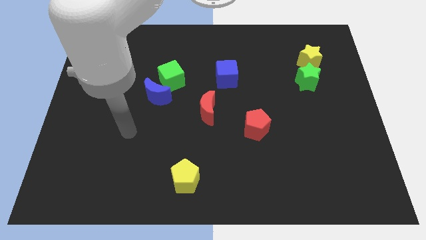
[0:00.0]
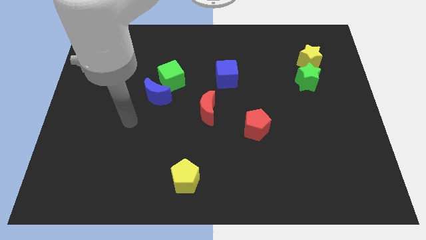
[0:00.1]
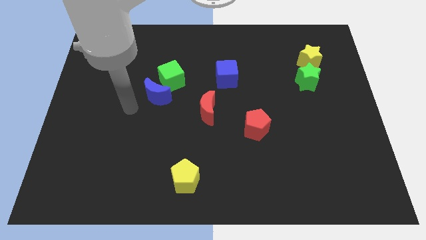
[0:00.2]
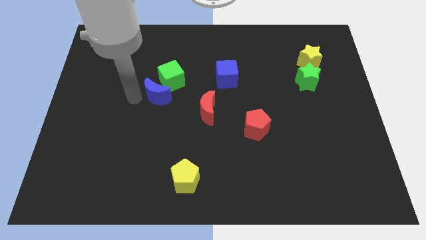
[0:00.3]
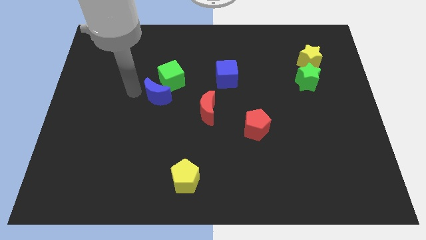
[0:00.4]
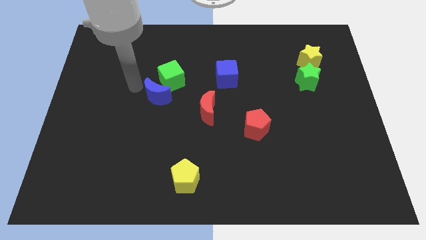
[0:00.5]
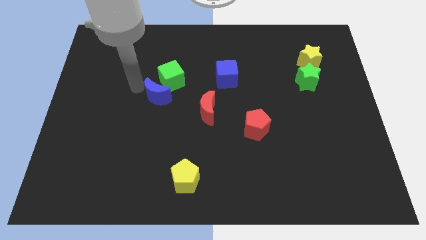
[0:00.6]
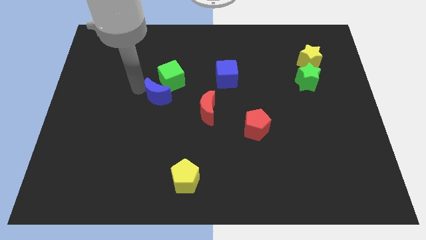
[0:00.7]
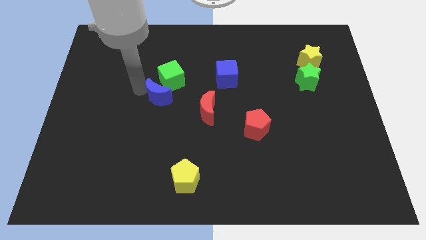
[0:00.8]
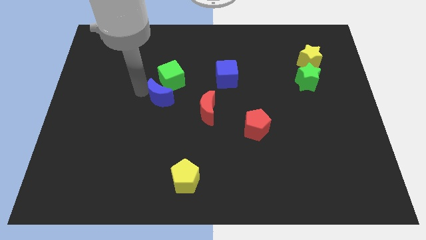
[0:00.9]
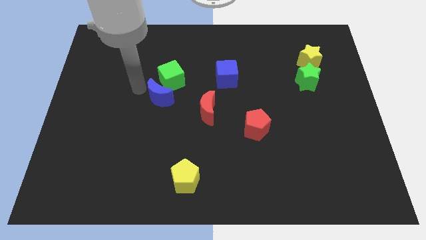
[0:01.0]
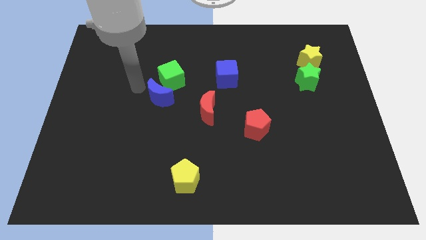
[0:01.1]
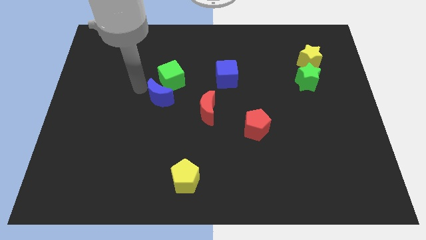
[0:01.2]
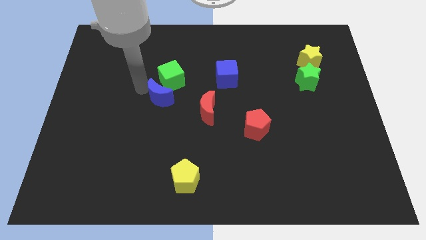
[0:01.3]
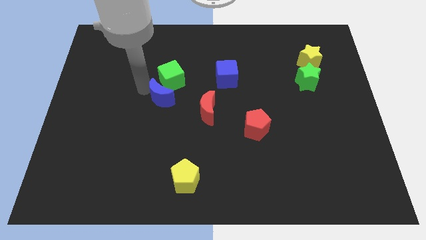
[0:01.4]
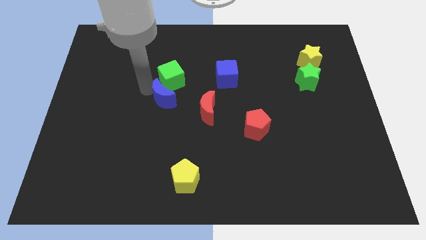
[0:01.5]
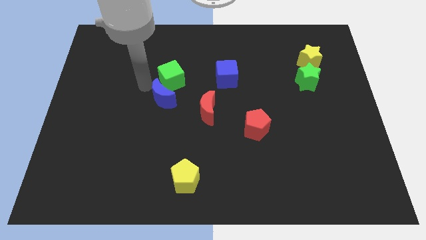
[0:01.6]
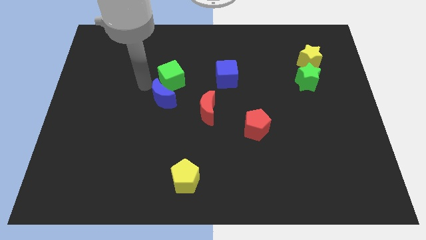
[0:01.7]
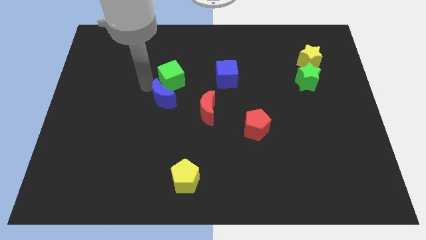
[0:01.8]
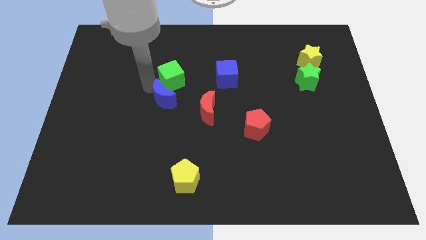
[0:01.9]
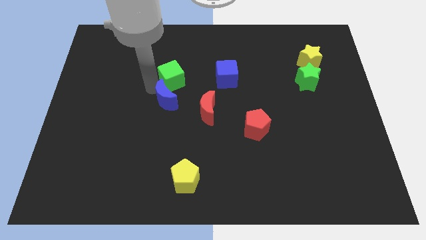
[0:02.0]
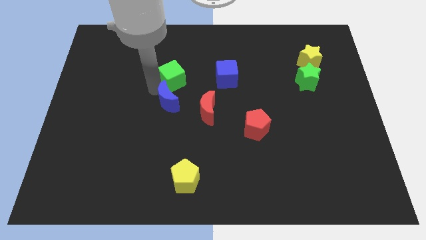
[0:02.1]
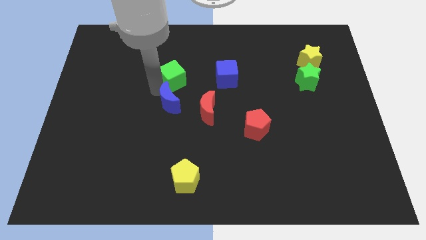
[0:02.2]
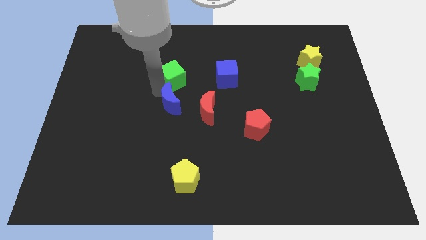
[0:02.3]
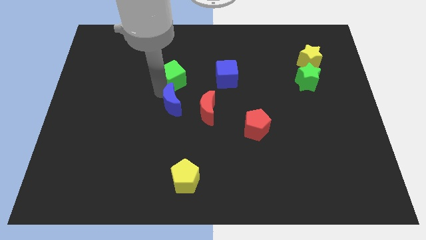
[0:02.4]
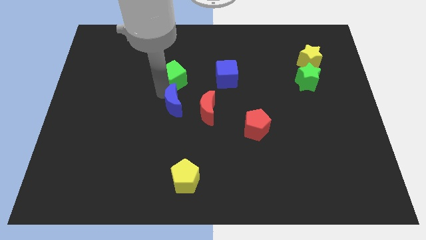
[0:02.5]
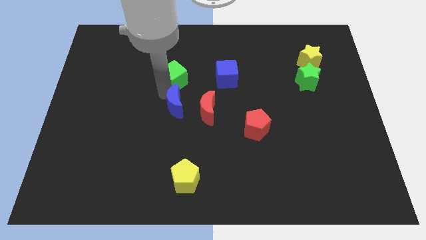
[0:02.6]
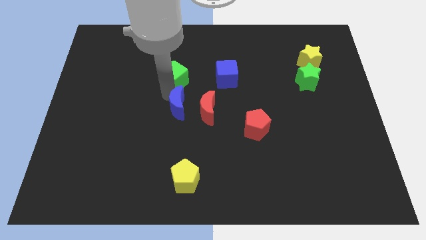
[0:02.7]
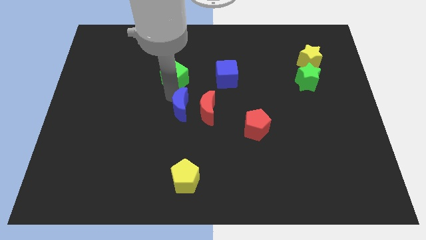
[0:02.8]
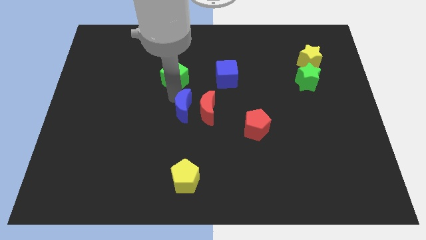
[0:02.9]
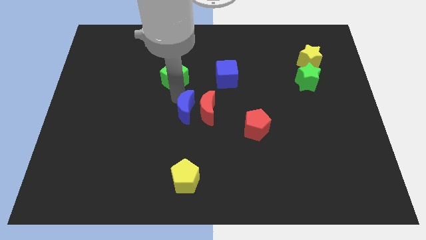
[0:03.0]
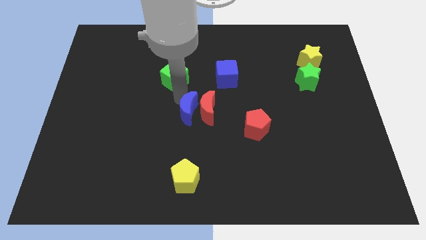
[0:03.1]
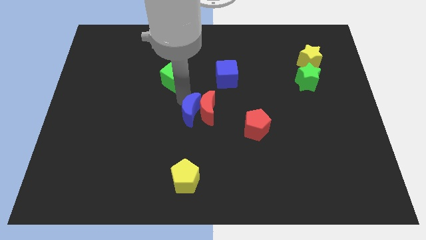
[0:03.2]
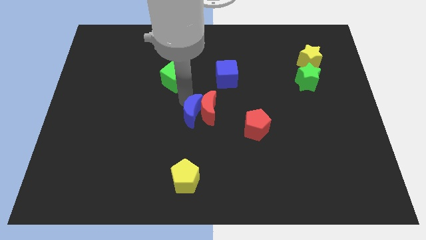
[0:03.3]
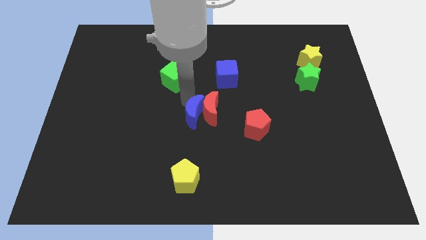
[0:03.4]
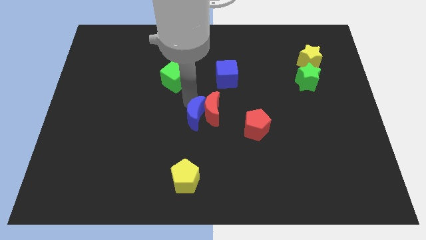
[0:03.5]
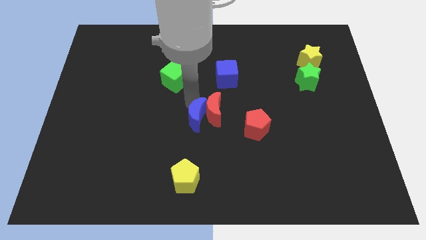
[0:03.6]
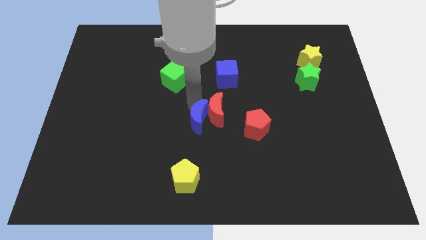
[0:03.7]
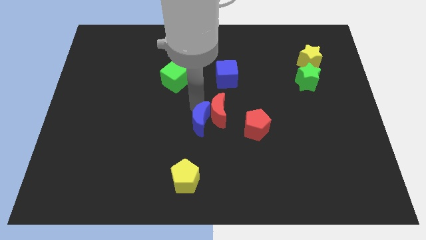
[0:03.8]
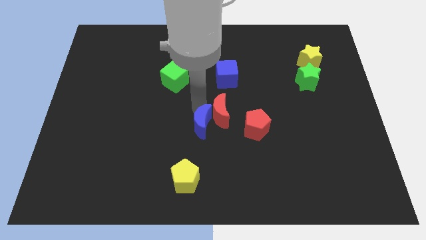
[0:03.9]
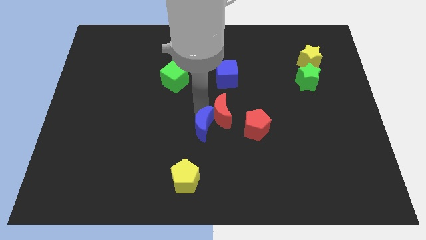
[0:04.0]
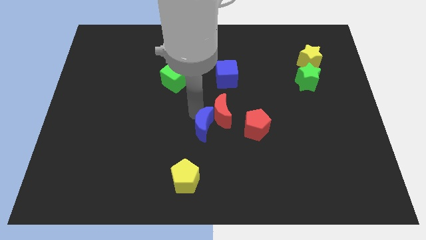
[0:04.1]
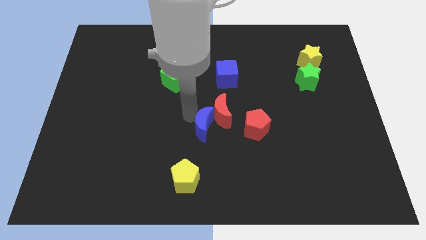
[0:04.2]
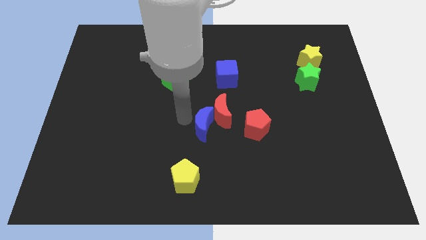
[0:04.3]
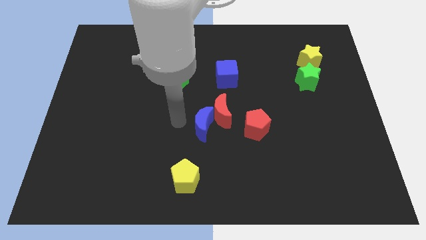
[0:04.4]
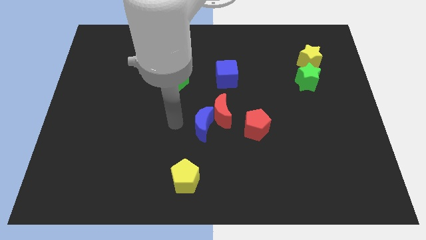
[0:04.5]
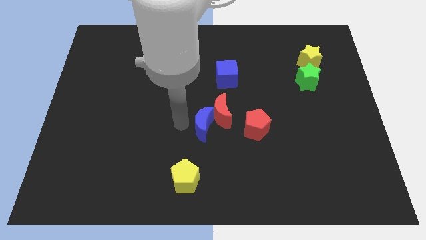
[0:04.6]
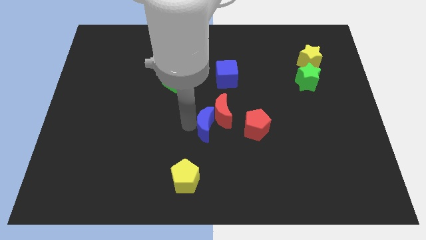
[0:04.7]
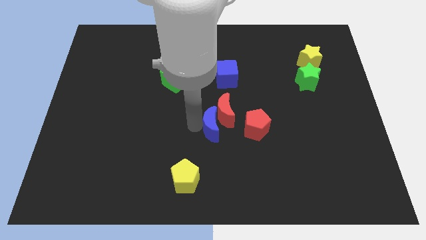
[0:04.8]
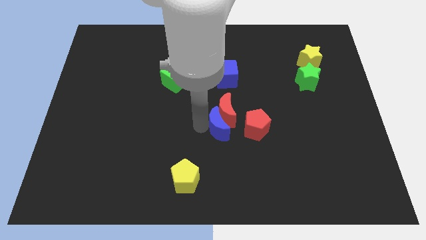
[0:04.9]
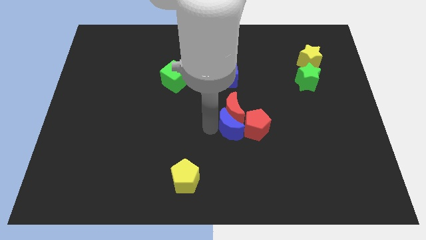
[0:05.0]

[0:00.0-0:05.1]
push the blue moon towards the red pentagon

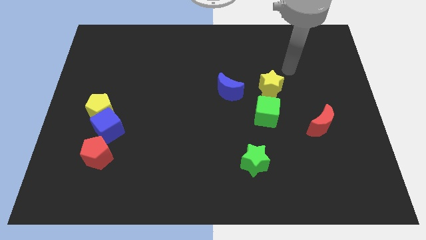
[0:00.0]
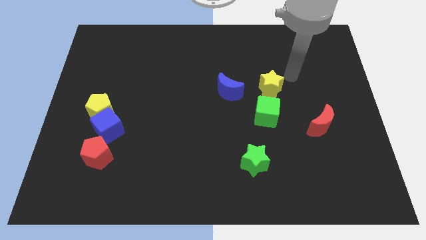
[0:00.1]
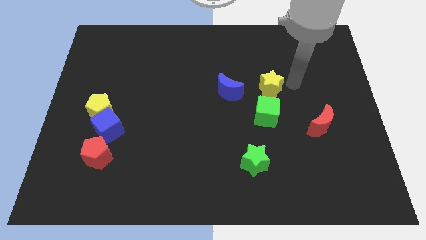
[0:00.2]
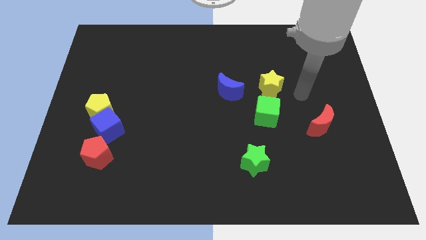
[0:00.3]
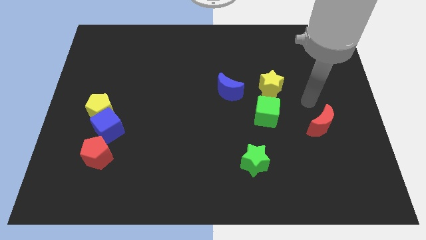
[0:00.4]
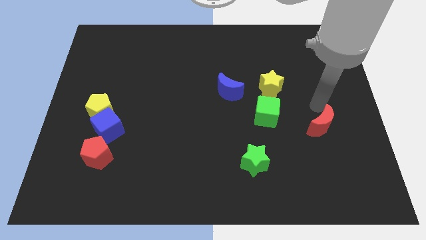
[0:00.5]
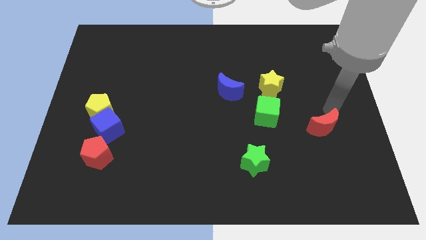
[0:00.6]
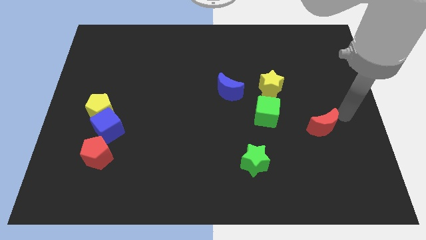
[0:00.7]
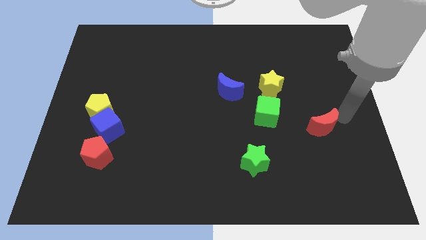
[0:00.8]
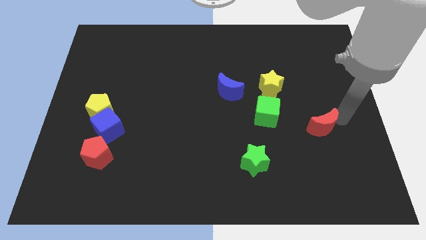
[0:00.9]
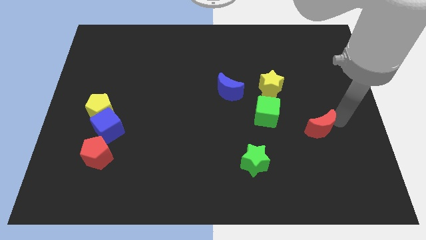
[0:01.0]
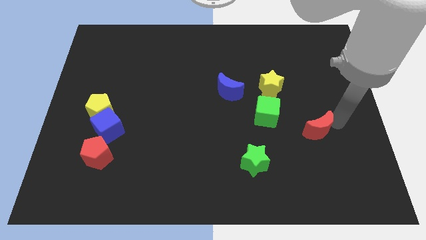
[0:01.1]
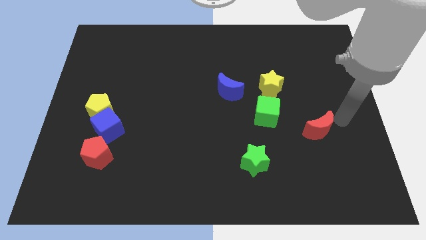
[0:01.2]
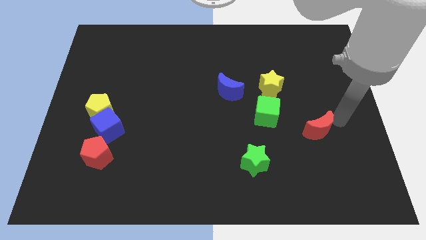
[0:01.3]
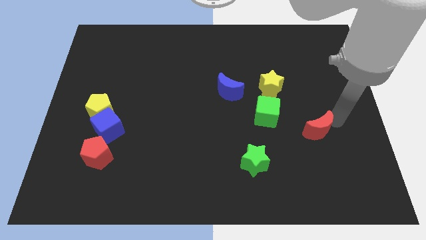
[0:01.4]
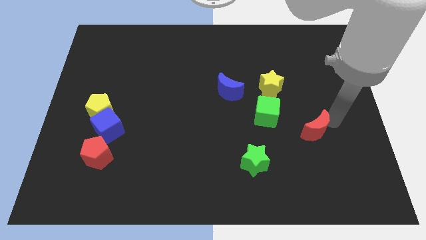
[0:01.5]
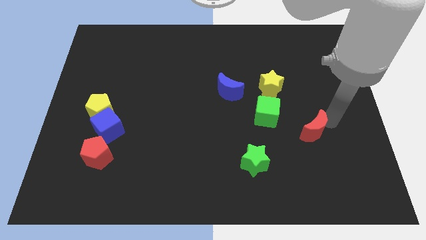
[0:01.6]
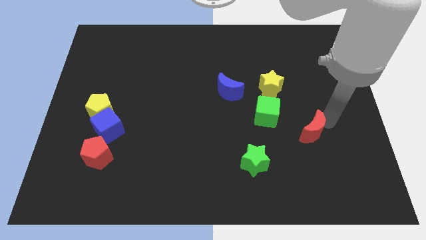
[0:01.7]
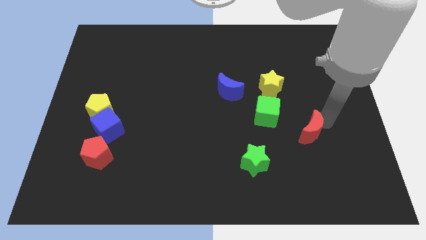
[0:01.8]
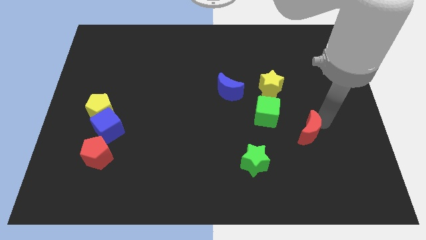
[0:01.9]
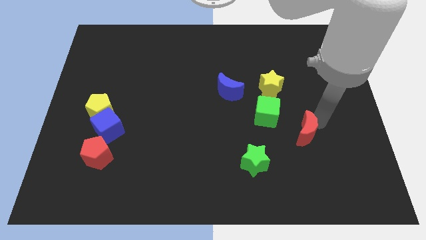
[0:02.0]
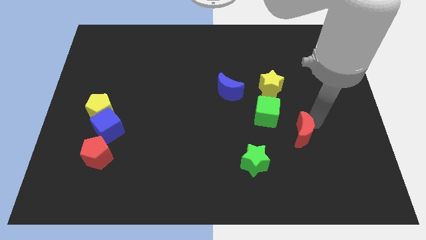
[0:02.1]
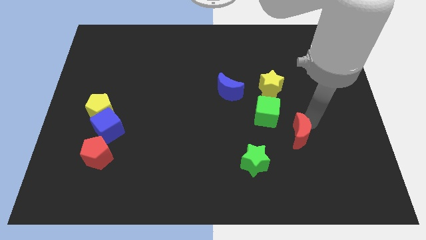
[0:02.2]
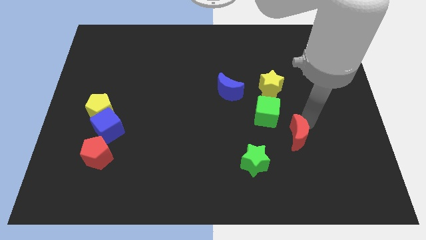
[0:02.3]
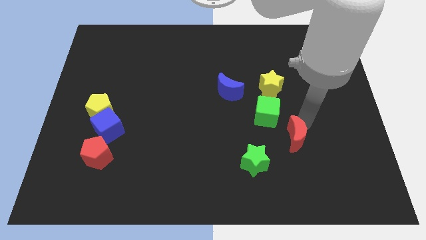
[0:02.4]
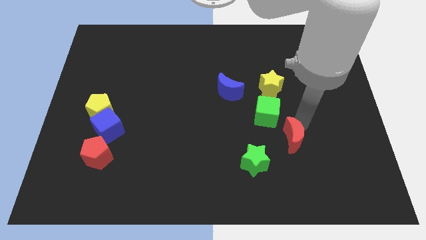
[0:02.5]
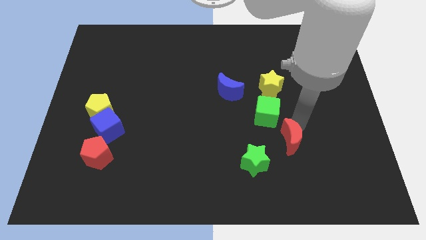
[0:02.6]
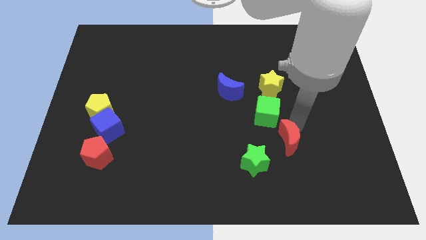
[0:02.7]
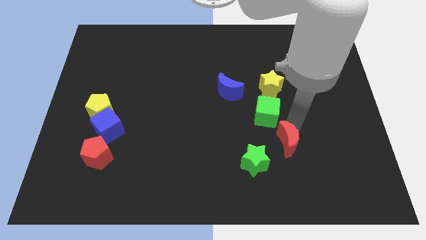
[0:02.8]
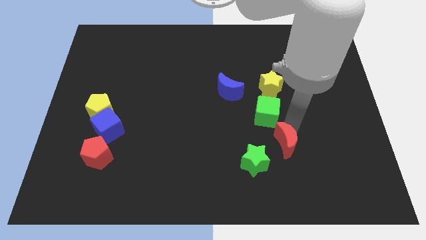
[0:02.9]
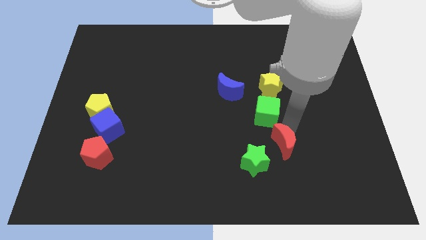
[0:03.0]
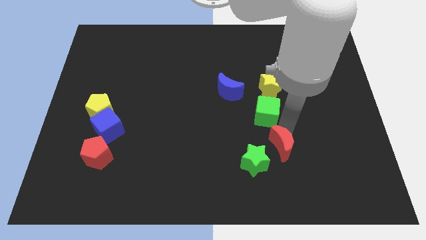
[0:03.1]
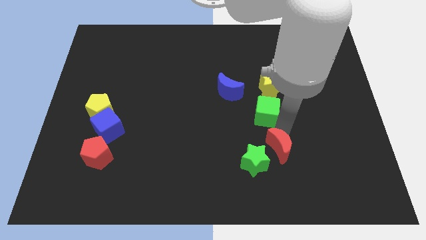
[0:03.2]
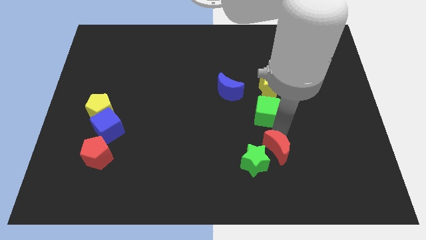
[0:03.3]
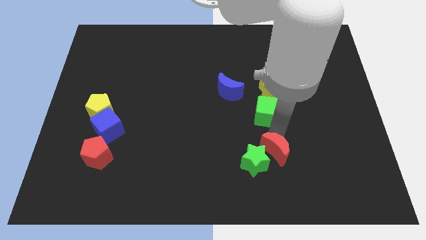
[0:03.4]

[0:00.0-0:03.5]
slide the red moon next to the green star
